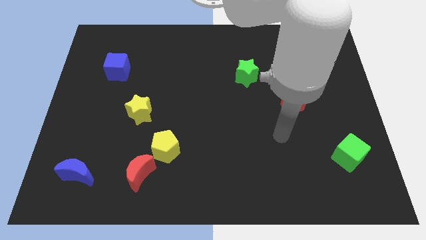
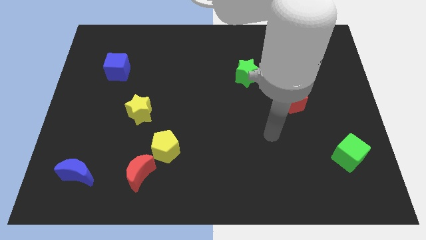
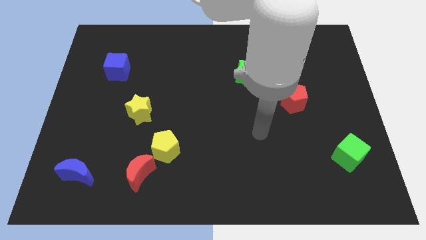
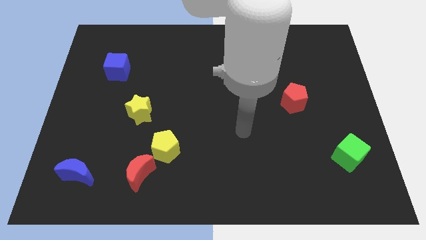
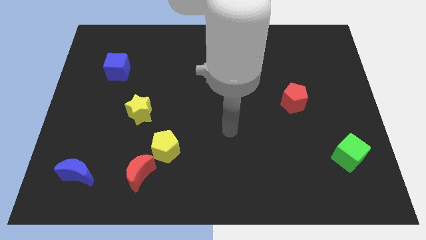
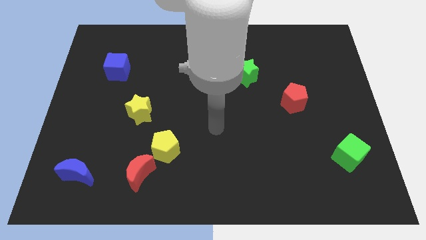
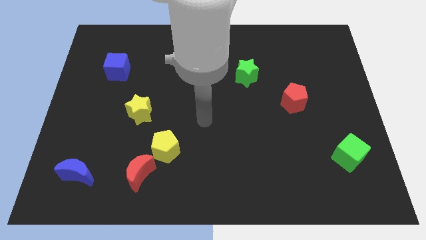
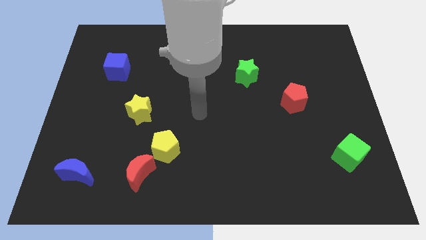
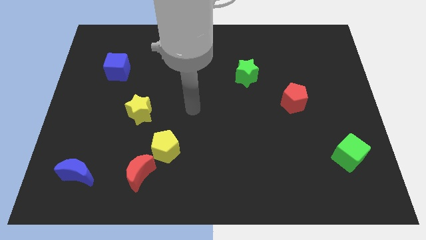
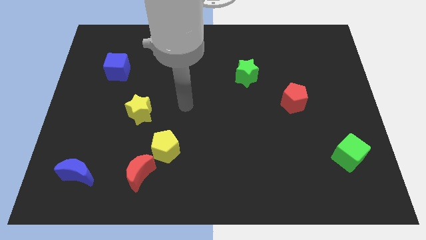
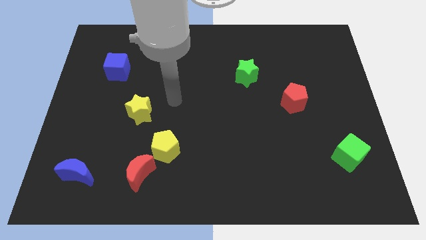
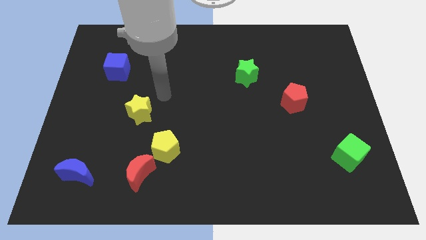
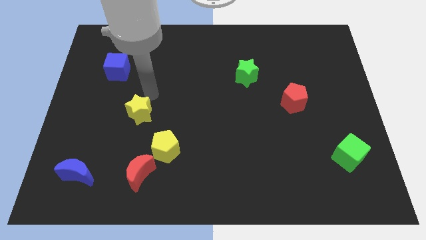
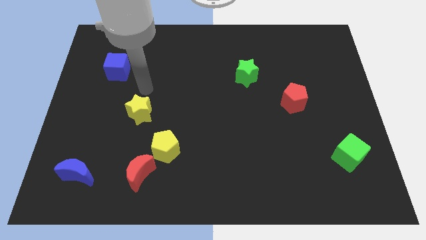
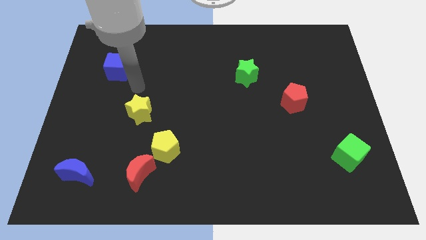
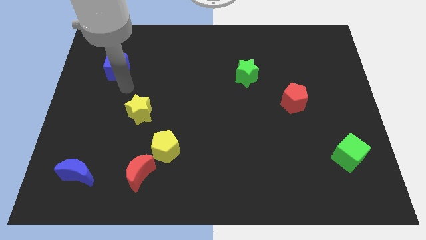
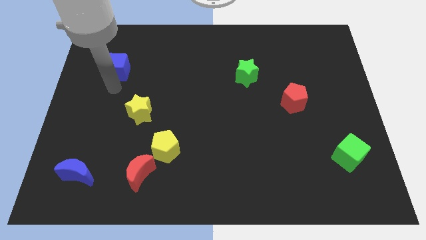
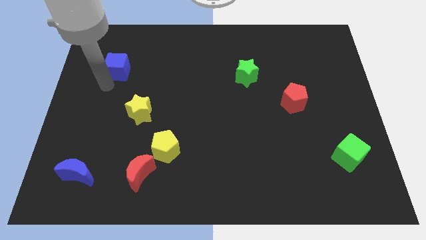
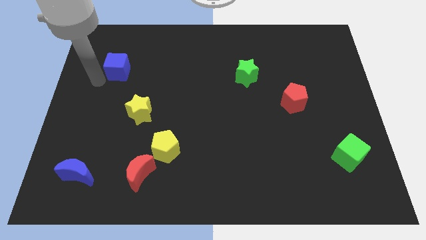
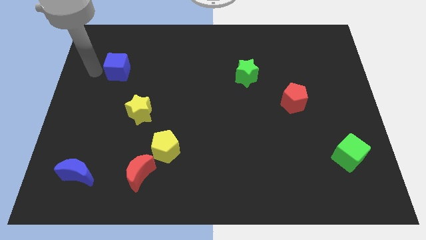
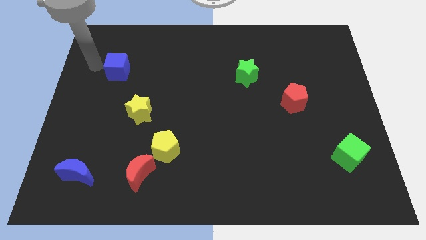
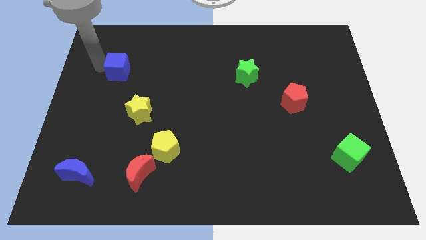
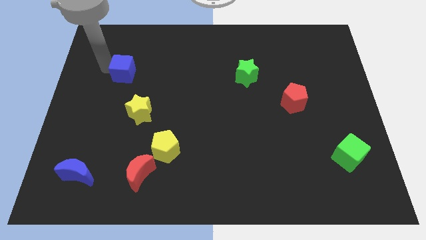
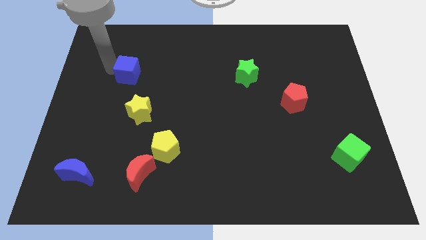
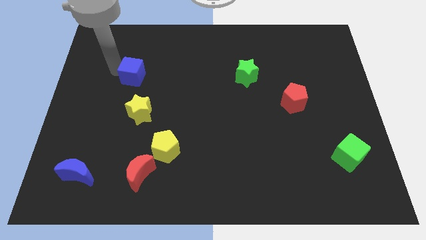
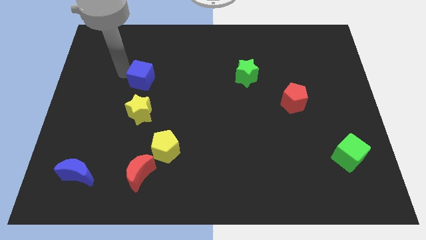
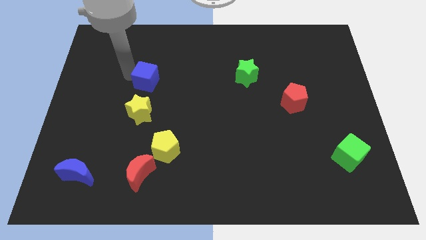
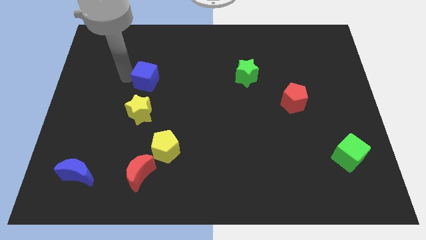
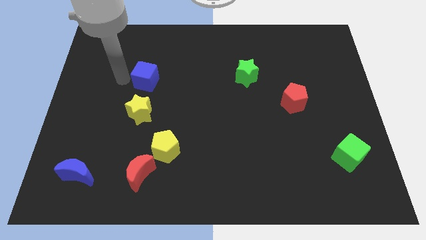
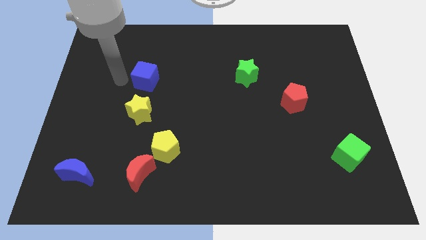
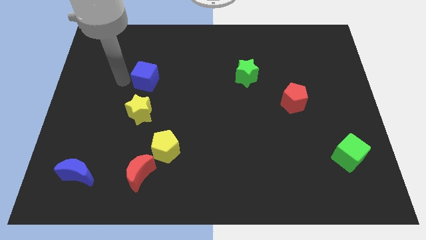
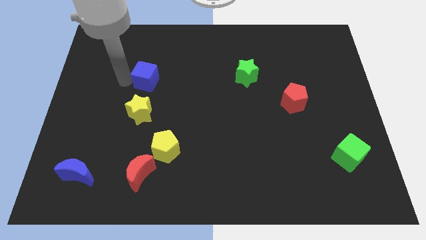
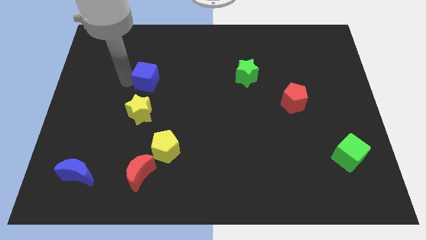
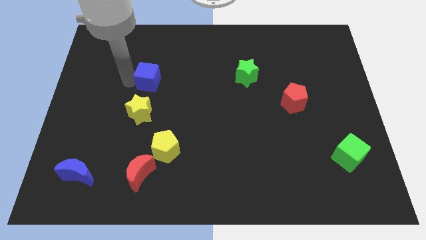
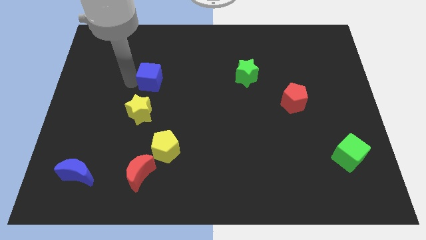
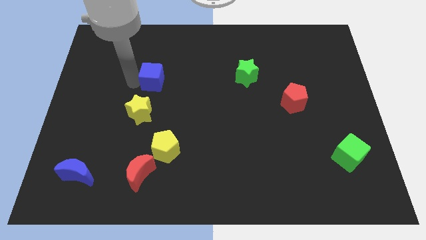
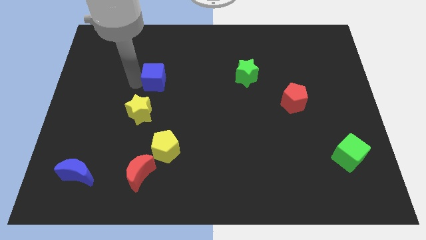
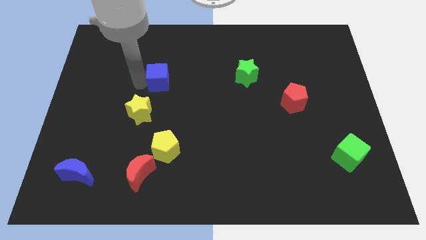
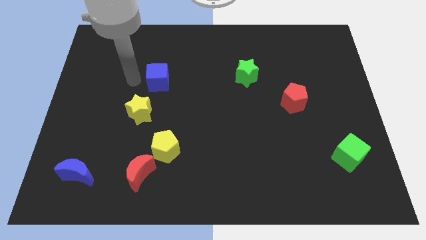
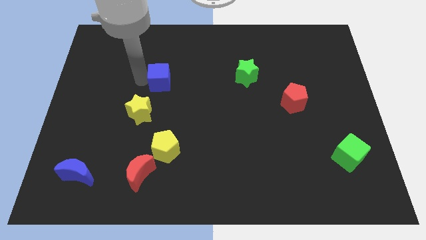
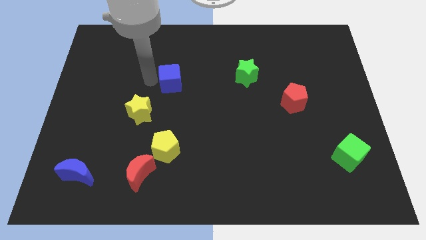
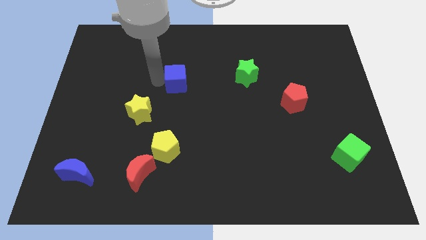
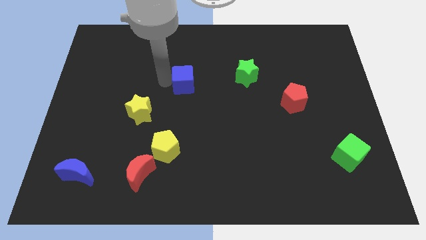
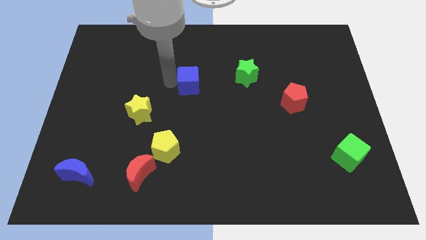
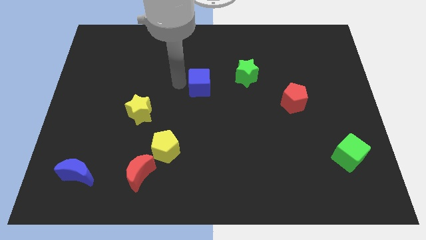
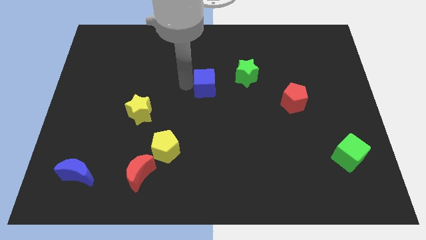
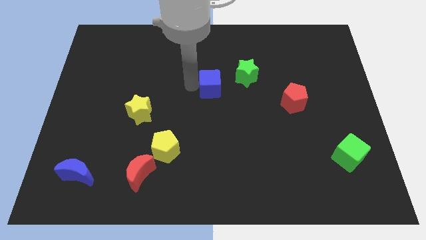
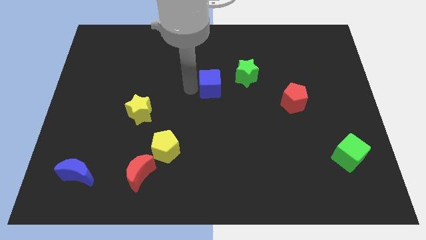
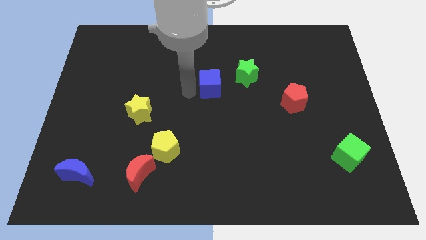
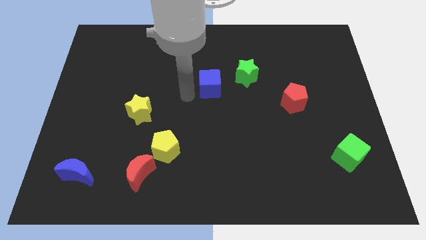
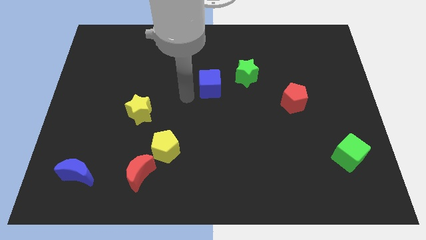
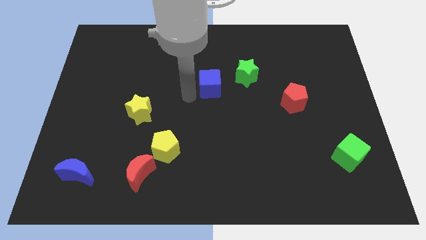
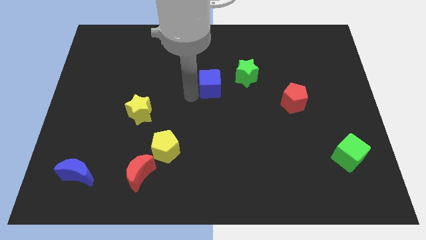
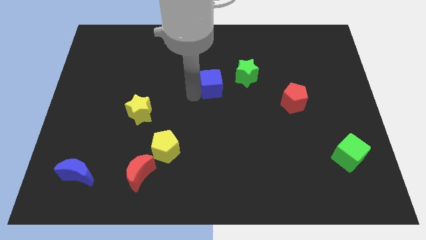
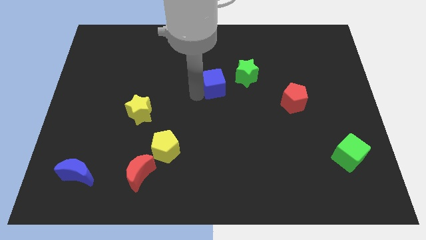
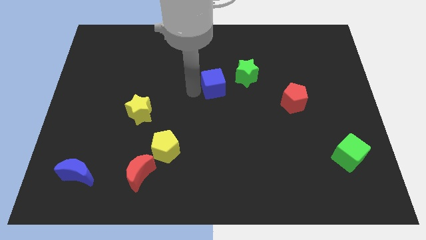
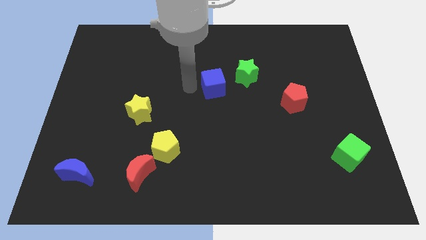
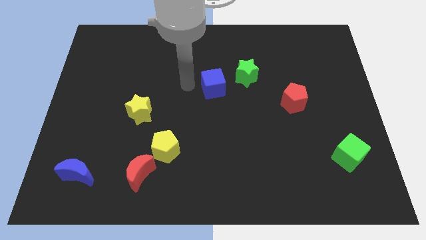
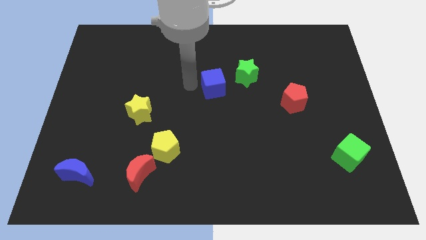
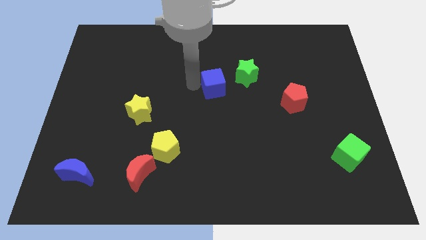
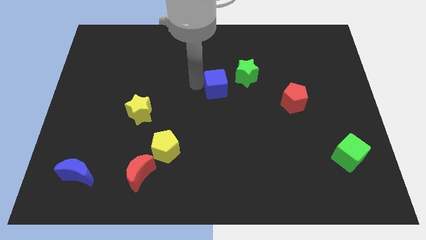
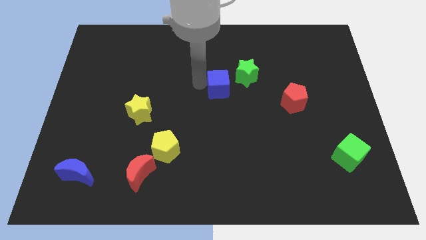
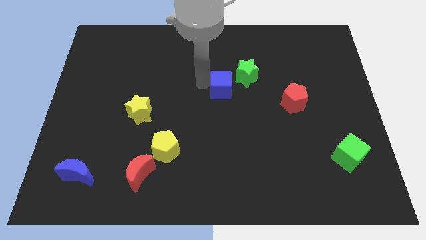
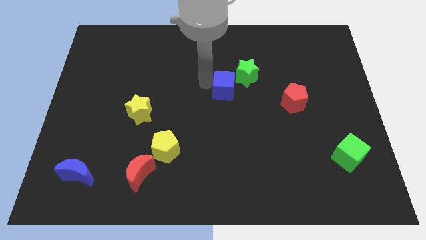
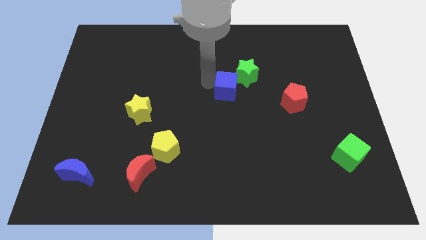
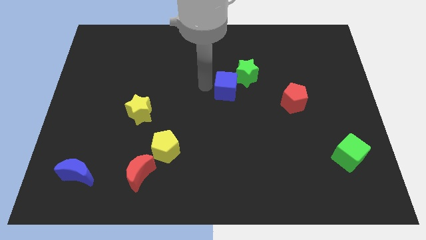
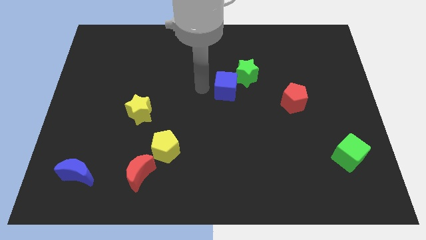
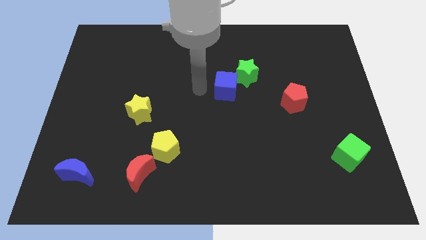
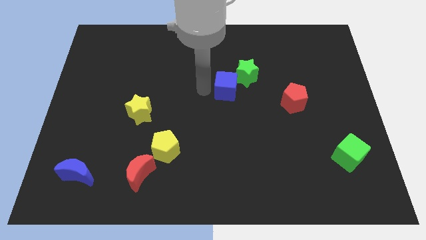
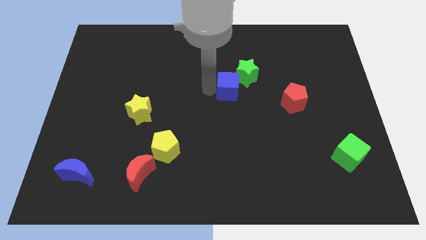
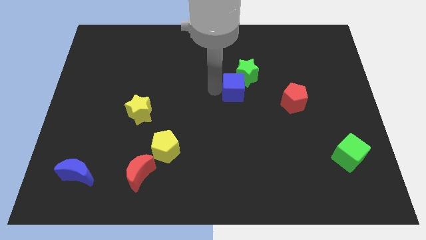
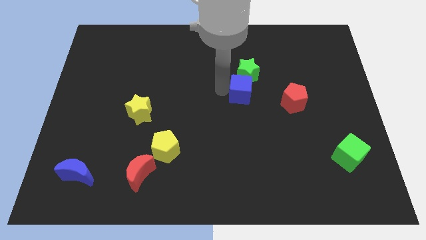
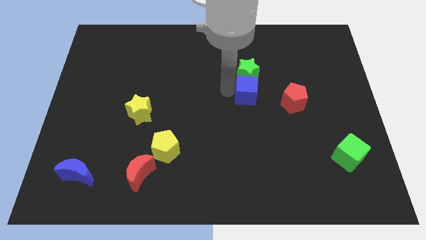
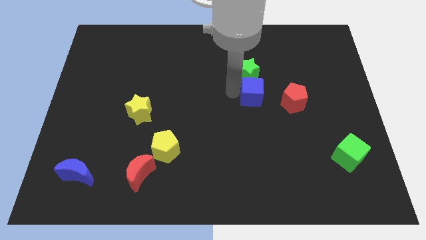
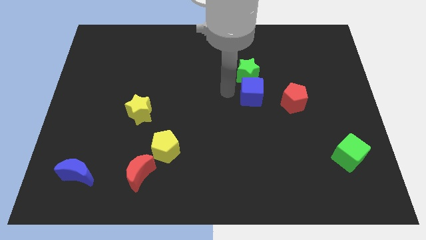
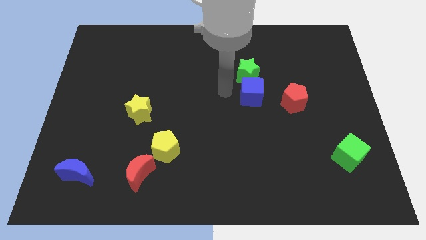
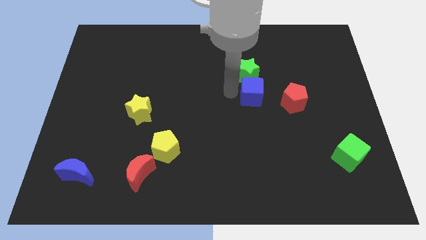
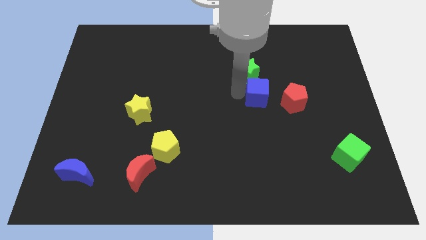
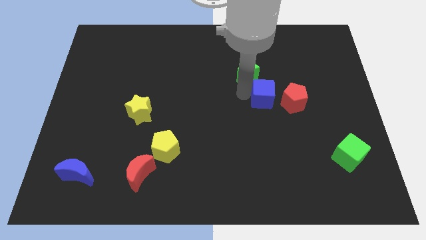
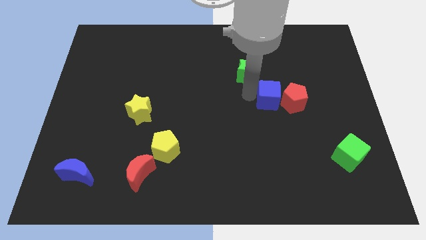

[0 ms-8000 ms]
put the blue cube towards the red pentagon
